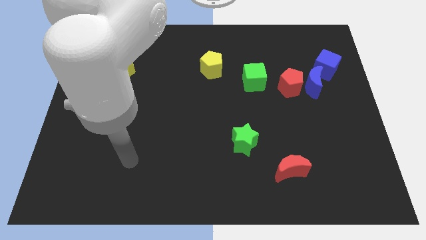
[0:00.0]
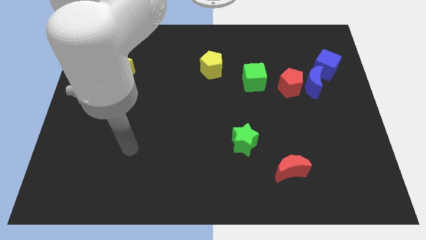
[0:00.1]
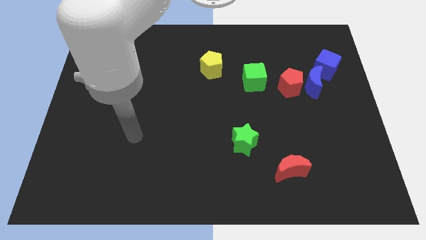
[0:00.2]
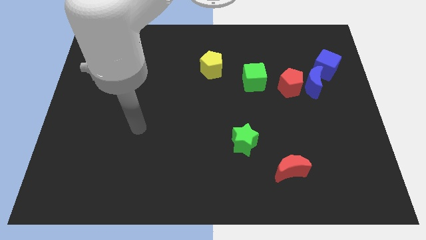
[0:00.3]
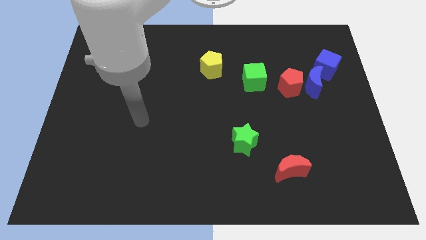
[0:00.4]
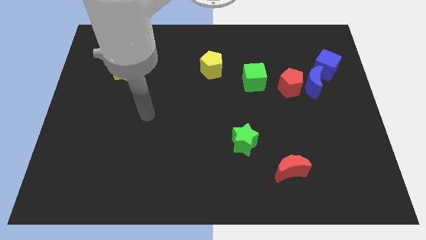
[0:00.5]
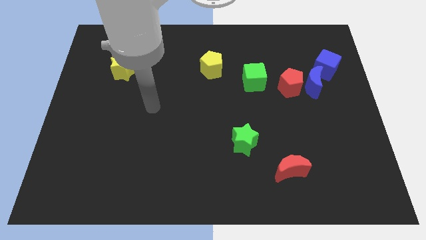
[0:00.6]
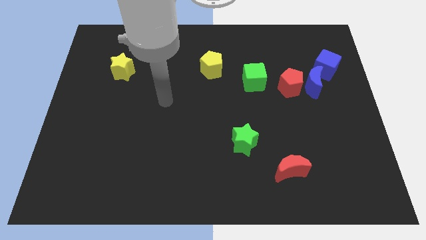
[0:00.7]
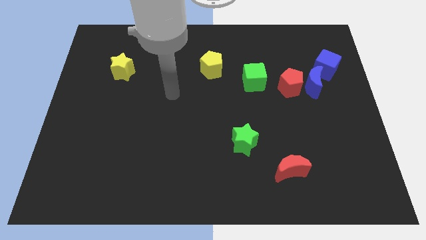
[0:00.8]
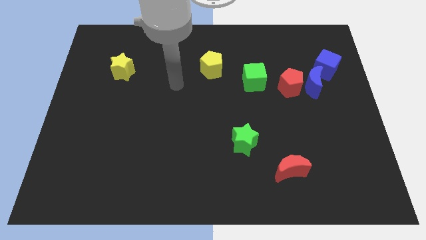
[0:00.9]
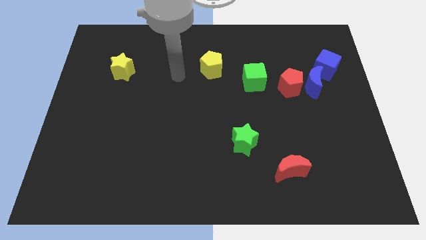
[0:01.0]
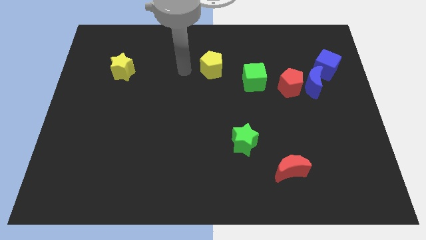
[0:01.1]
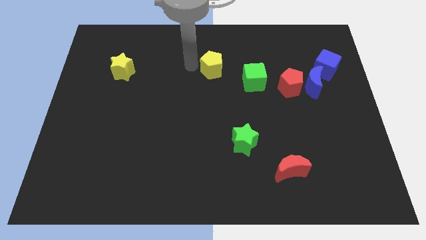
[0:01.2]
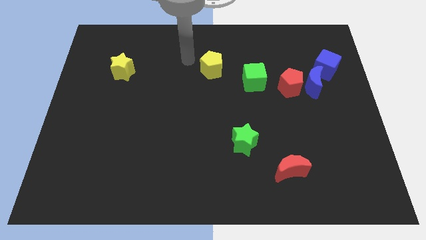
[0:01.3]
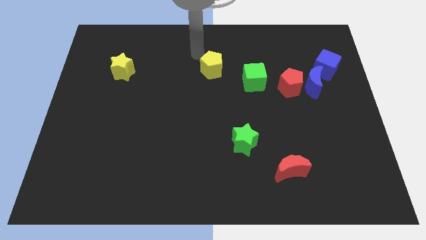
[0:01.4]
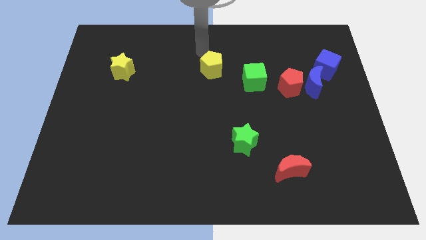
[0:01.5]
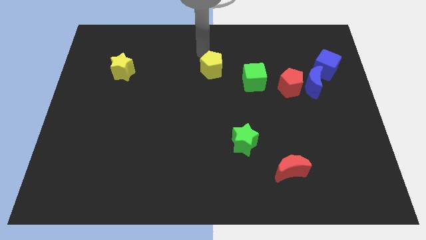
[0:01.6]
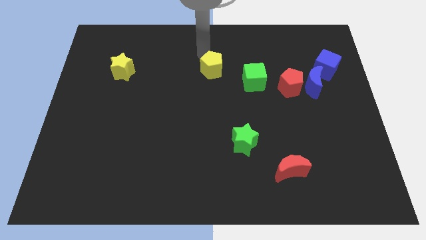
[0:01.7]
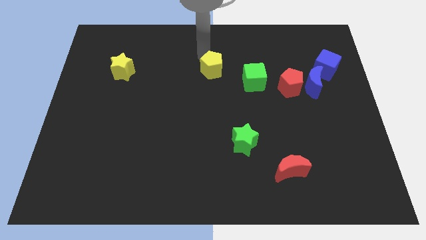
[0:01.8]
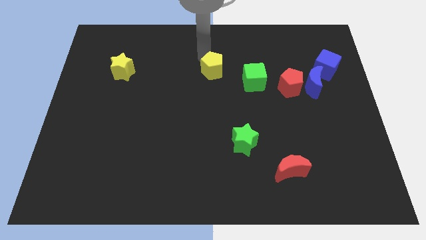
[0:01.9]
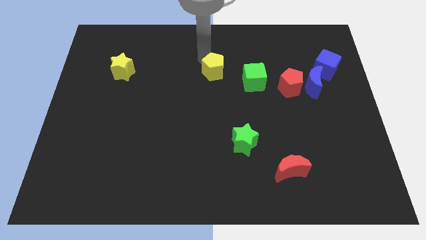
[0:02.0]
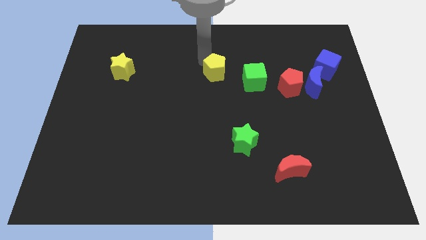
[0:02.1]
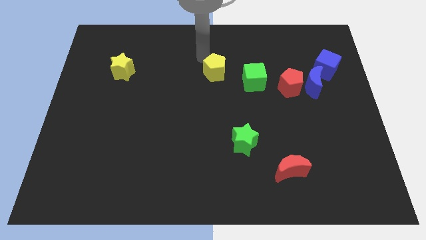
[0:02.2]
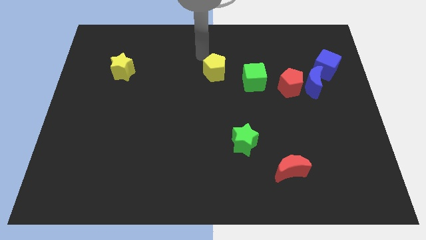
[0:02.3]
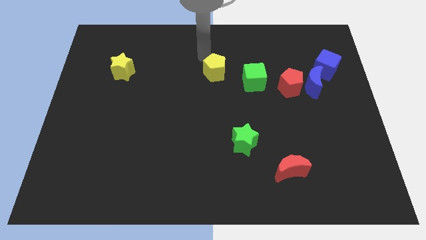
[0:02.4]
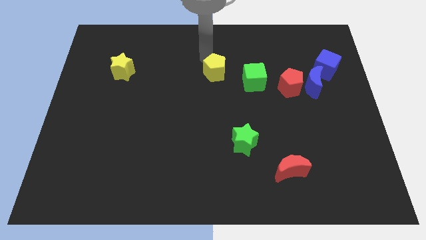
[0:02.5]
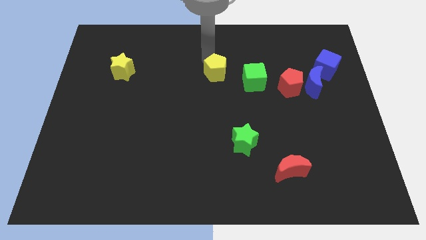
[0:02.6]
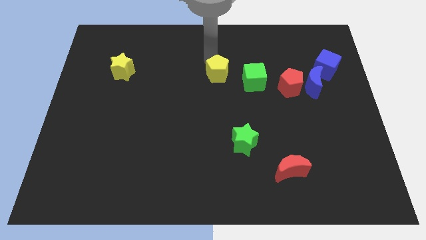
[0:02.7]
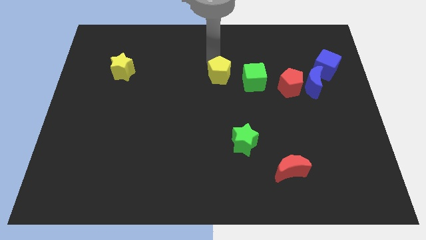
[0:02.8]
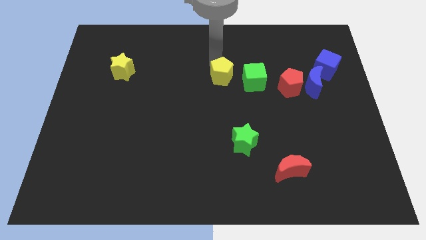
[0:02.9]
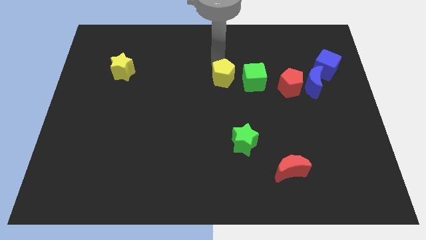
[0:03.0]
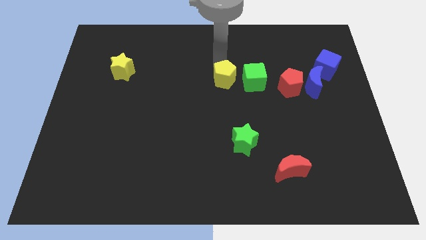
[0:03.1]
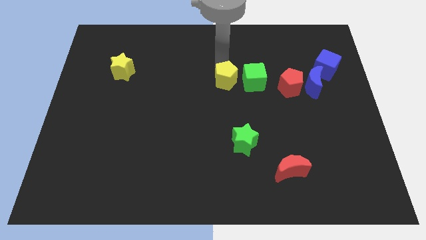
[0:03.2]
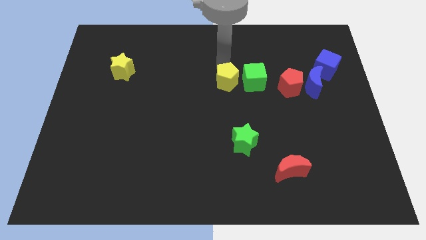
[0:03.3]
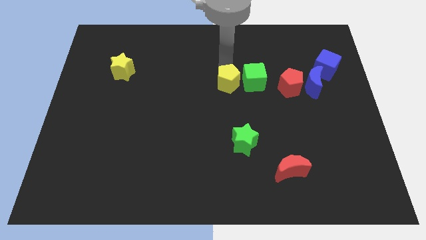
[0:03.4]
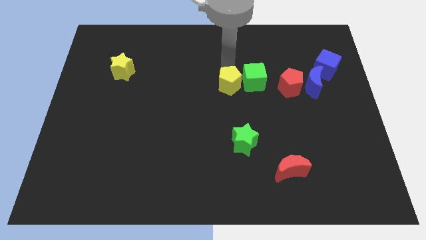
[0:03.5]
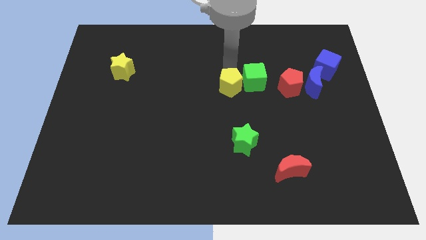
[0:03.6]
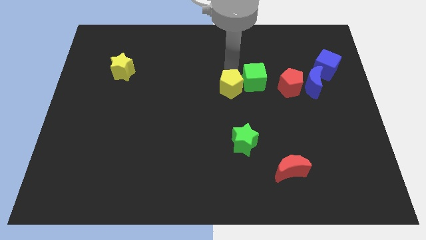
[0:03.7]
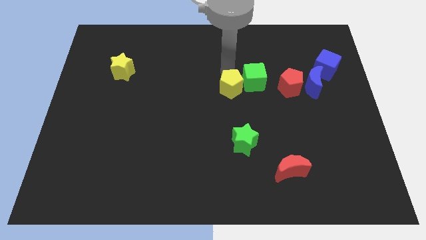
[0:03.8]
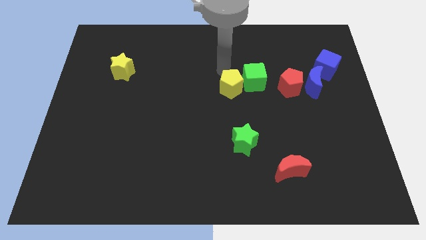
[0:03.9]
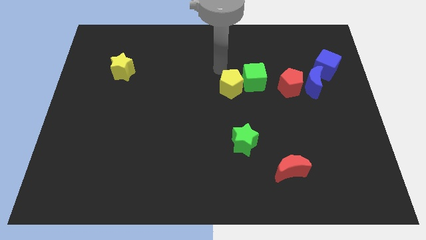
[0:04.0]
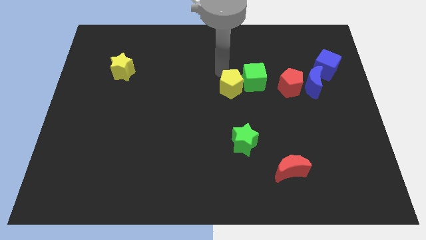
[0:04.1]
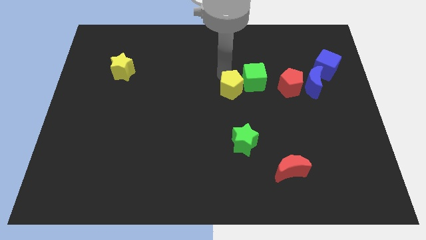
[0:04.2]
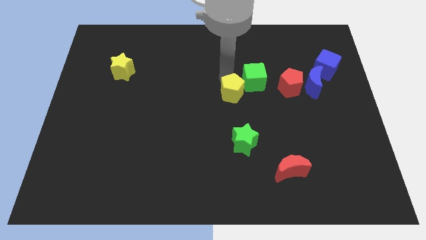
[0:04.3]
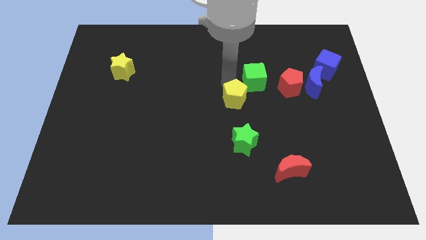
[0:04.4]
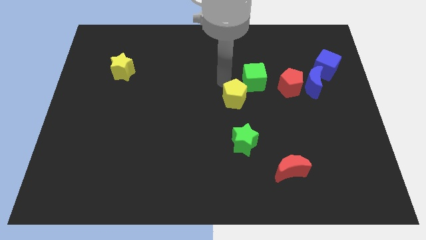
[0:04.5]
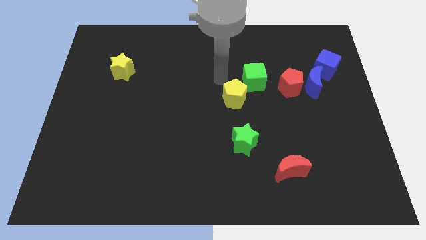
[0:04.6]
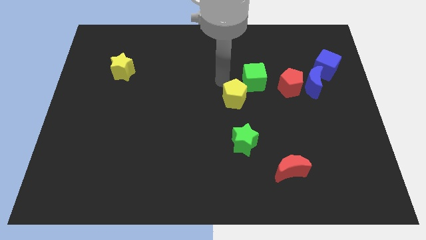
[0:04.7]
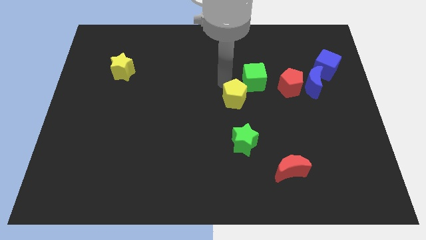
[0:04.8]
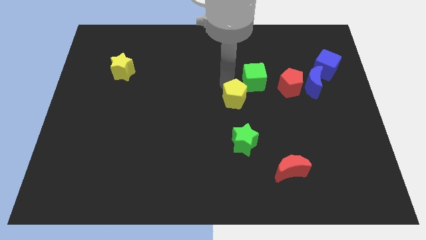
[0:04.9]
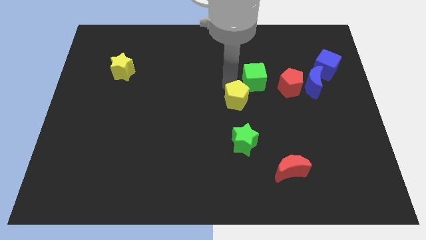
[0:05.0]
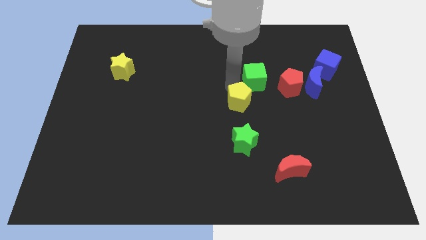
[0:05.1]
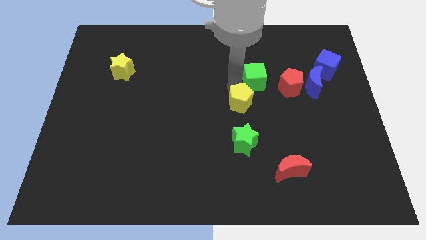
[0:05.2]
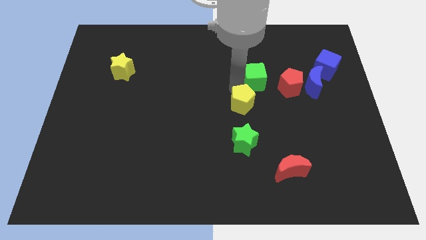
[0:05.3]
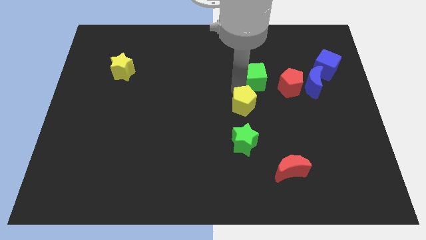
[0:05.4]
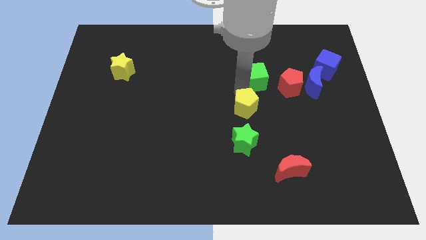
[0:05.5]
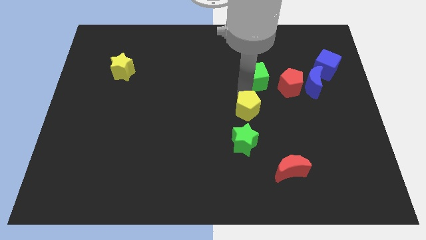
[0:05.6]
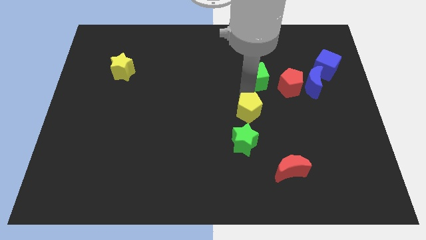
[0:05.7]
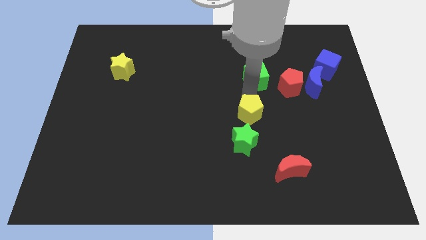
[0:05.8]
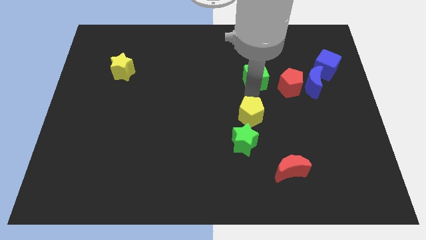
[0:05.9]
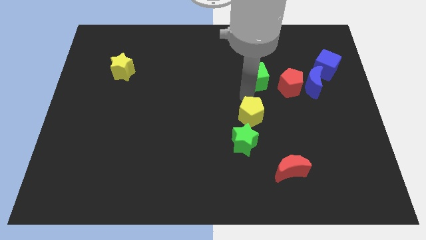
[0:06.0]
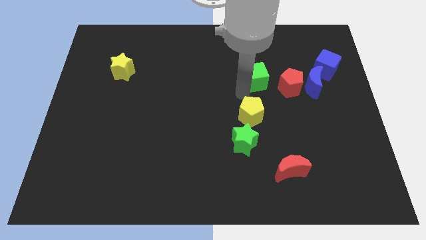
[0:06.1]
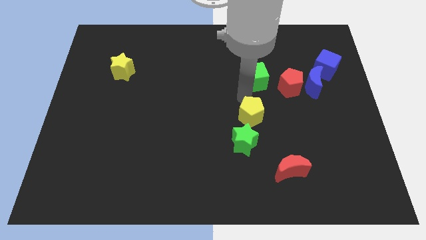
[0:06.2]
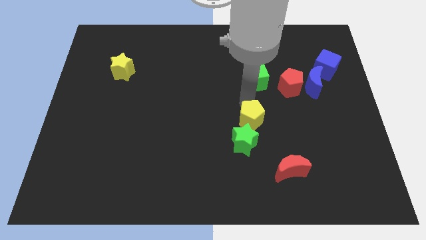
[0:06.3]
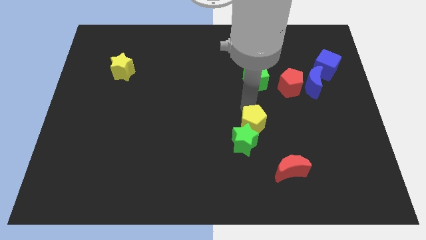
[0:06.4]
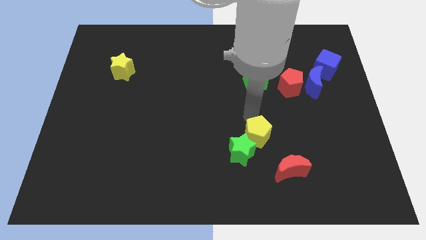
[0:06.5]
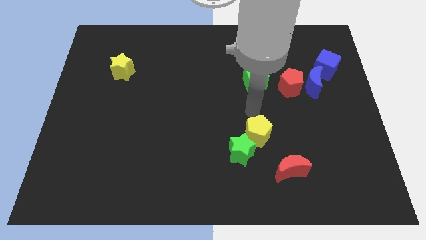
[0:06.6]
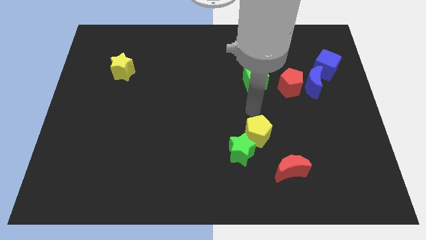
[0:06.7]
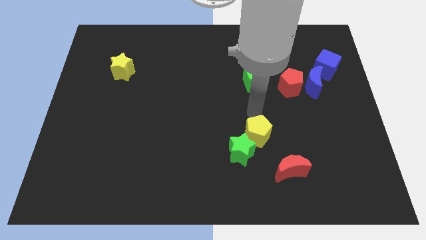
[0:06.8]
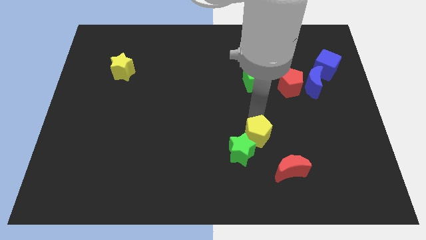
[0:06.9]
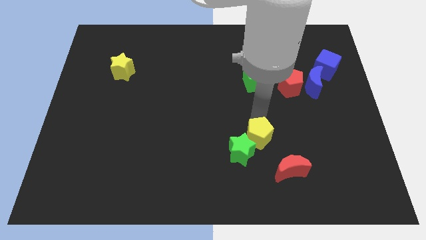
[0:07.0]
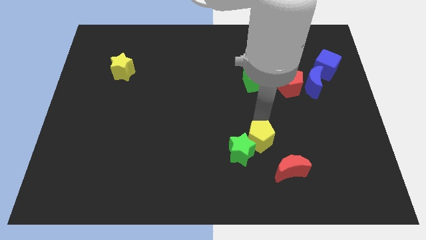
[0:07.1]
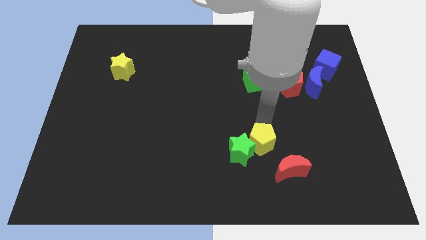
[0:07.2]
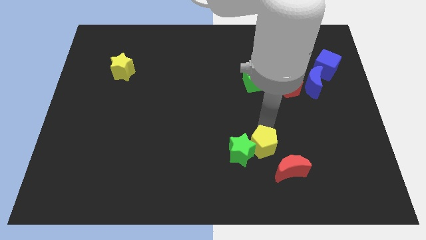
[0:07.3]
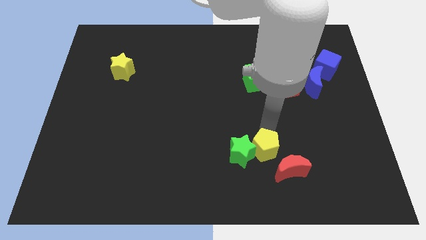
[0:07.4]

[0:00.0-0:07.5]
slide the yellow pentagon to the bottom right side of the green star
